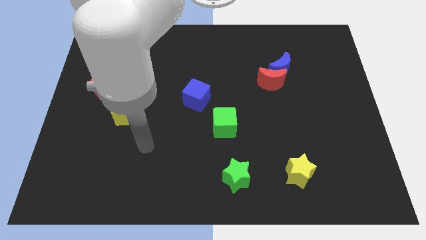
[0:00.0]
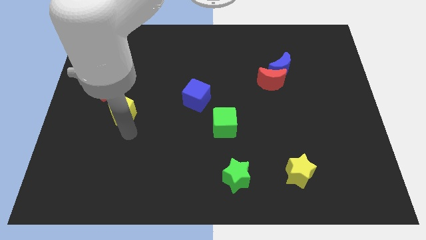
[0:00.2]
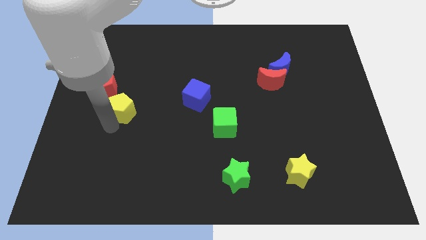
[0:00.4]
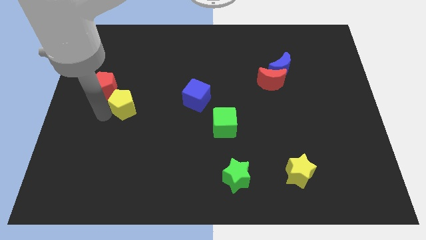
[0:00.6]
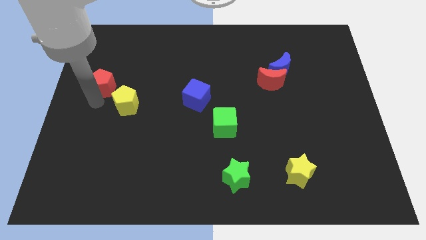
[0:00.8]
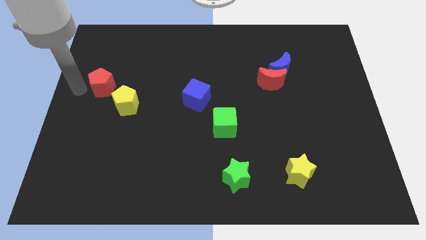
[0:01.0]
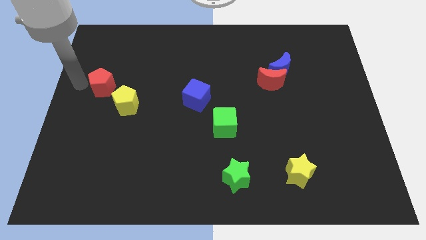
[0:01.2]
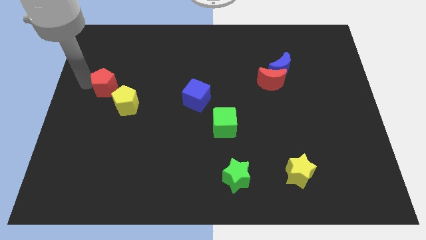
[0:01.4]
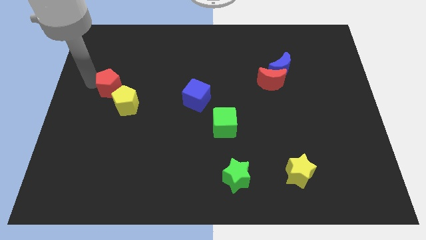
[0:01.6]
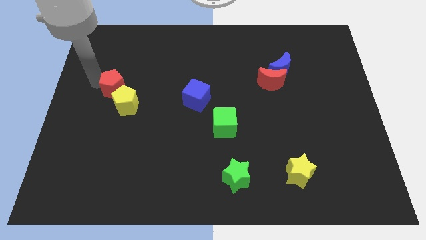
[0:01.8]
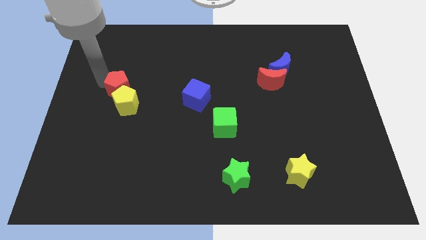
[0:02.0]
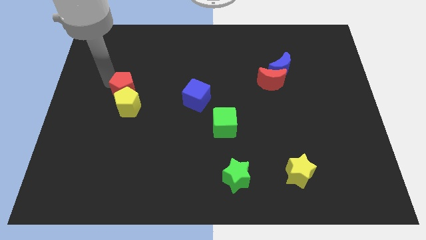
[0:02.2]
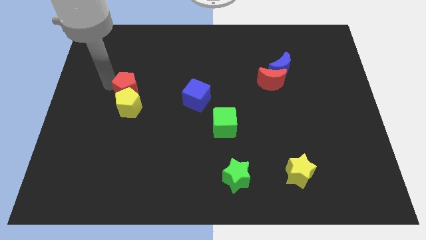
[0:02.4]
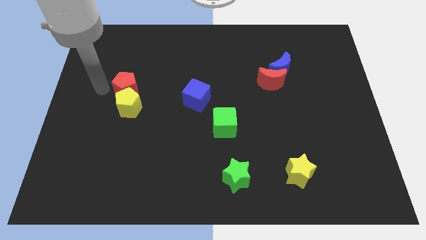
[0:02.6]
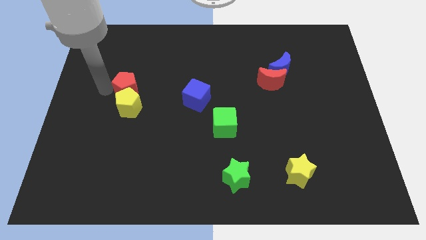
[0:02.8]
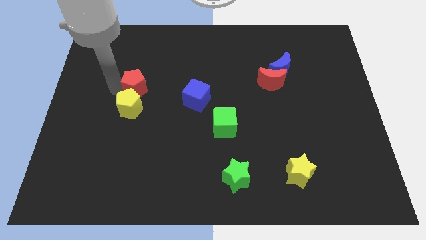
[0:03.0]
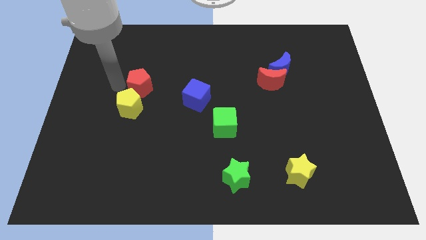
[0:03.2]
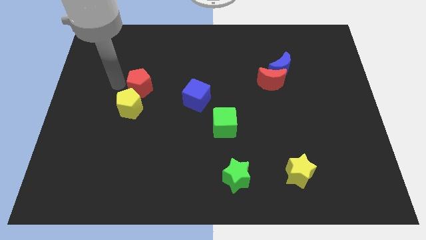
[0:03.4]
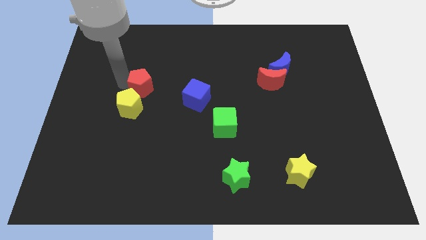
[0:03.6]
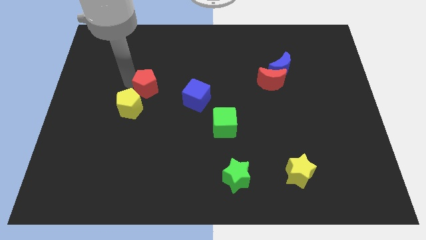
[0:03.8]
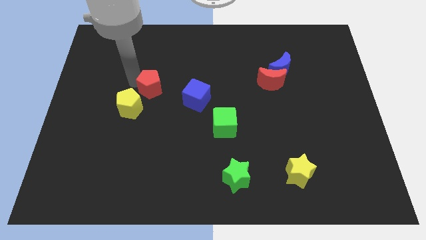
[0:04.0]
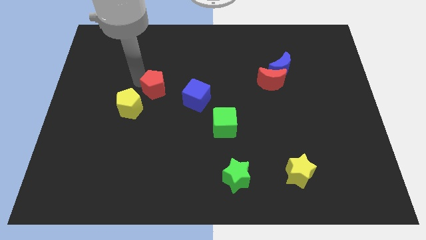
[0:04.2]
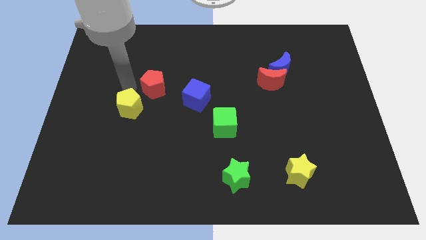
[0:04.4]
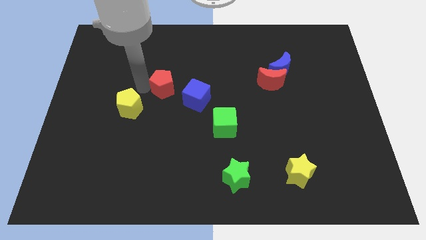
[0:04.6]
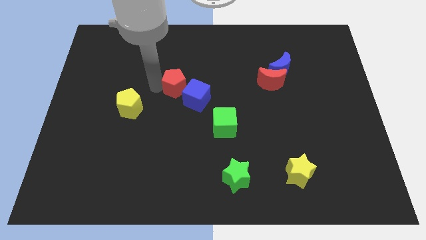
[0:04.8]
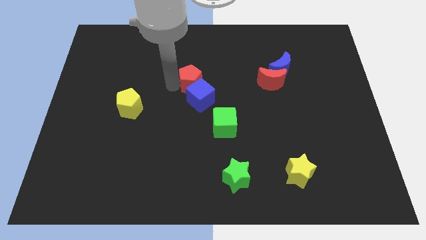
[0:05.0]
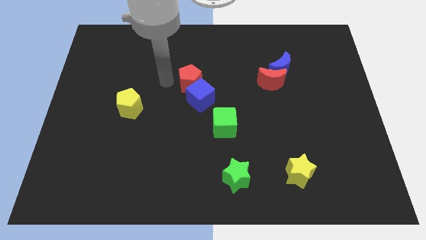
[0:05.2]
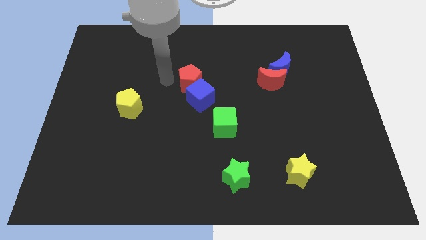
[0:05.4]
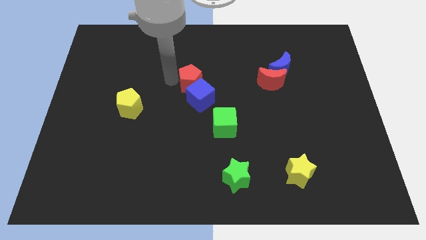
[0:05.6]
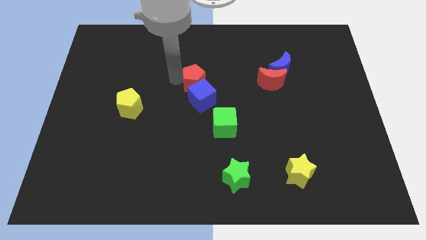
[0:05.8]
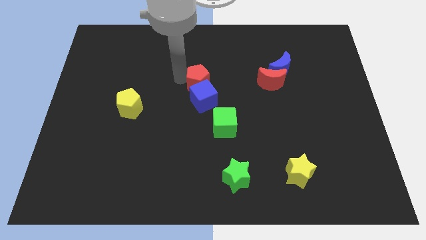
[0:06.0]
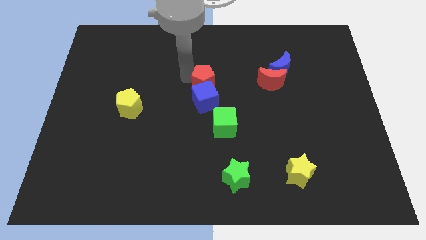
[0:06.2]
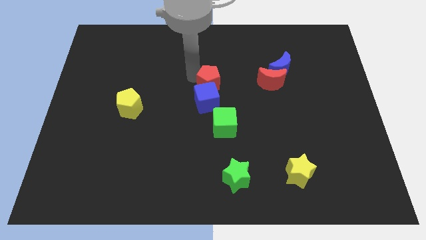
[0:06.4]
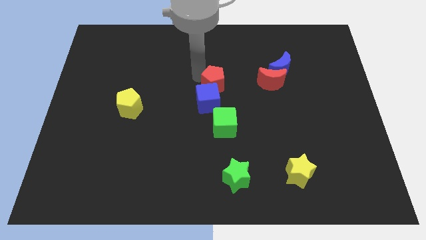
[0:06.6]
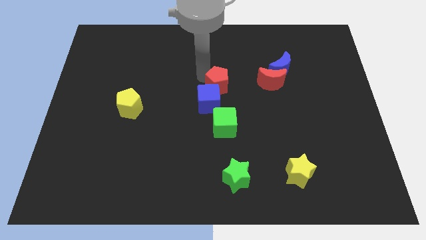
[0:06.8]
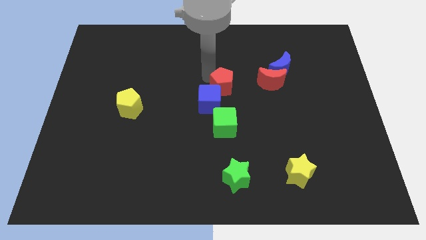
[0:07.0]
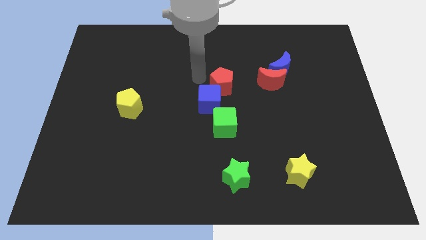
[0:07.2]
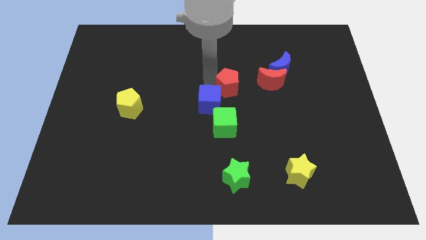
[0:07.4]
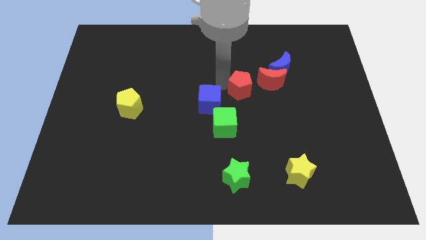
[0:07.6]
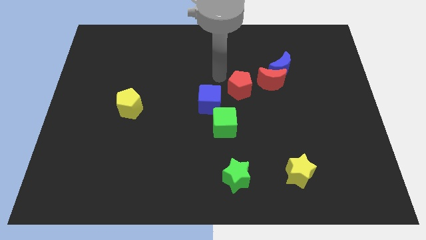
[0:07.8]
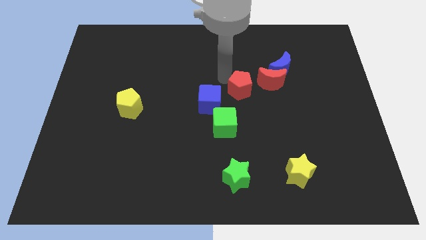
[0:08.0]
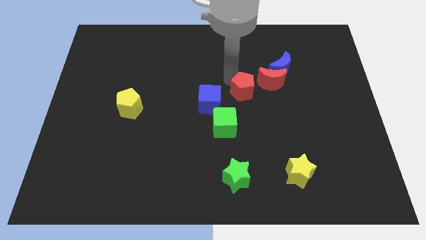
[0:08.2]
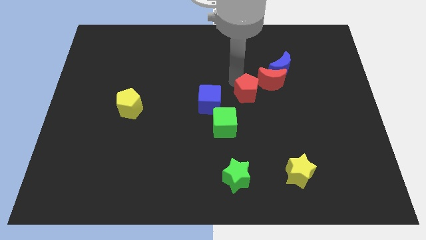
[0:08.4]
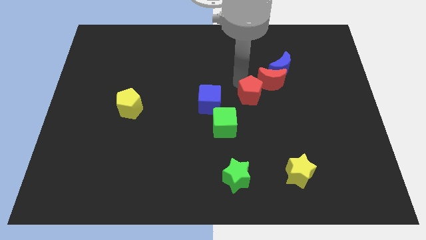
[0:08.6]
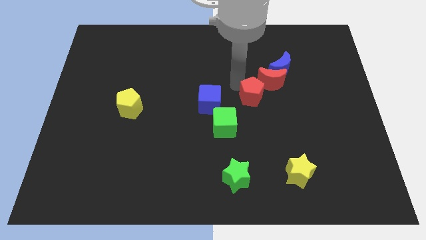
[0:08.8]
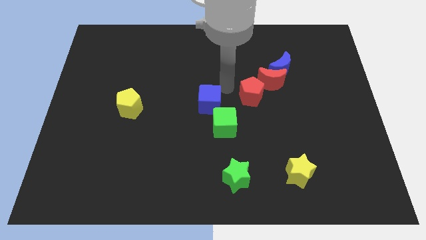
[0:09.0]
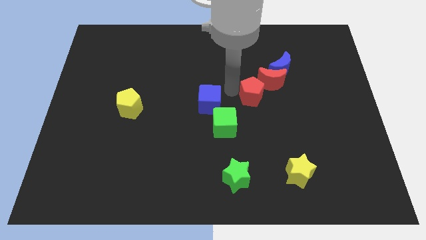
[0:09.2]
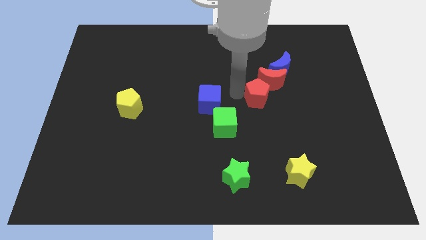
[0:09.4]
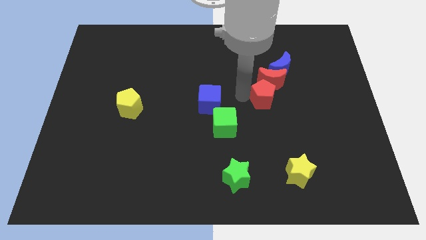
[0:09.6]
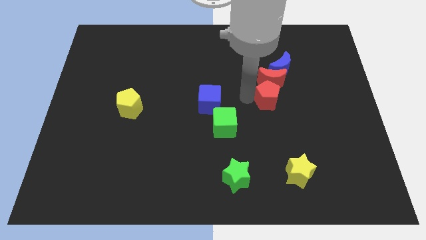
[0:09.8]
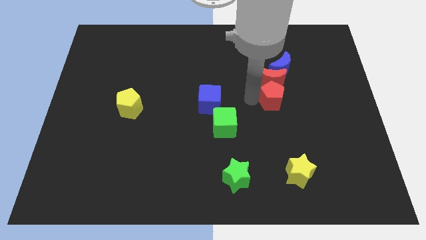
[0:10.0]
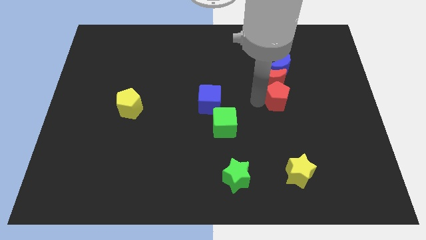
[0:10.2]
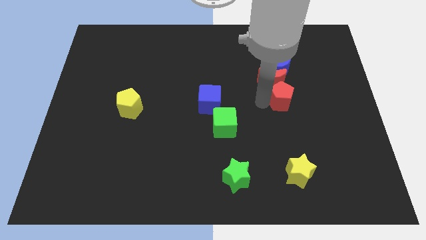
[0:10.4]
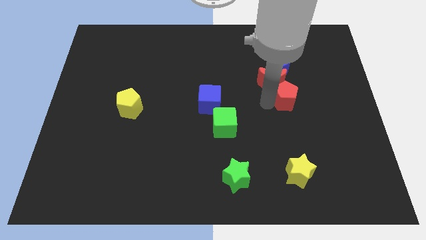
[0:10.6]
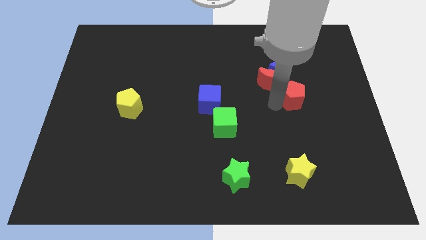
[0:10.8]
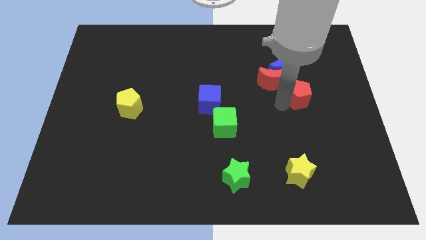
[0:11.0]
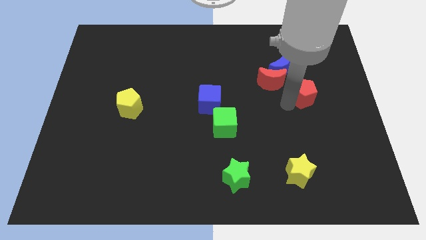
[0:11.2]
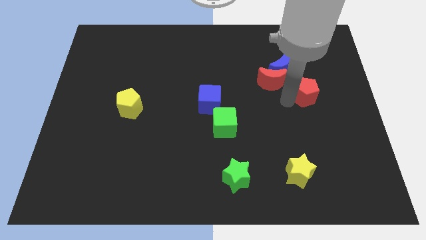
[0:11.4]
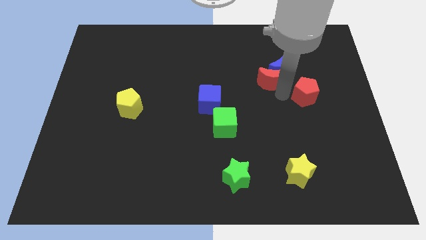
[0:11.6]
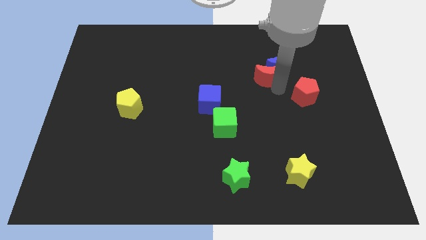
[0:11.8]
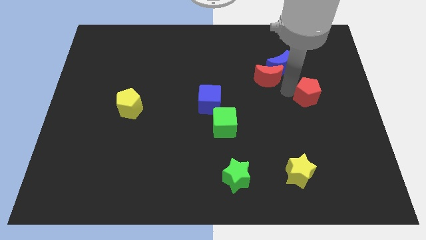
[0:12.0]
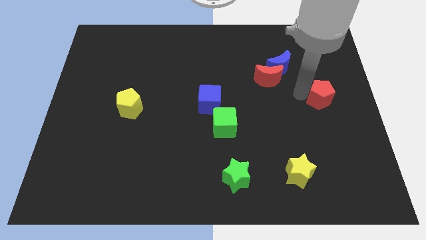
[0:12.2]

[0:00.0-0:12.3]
move the red pentagon to the right side of the board
